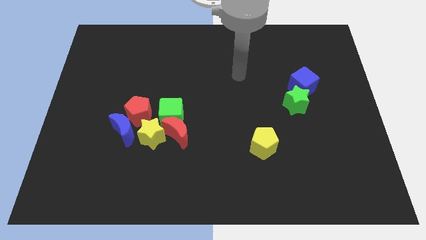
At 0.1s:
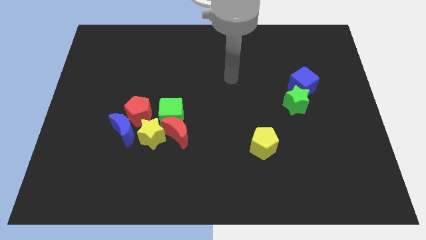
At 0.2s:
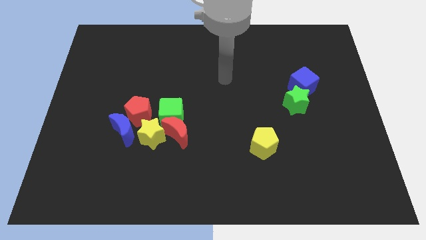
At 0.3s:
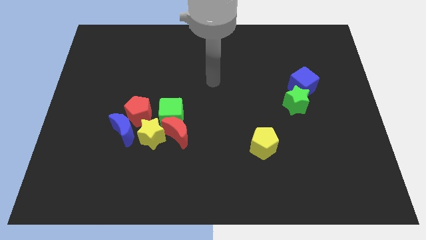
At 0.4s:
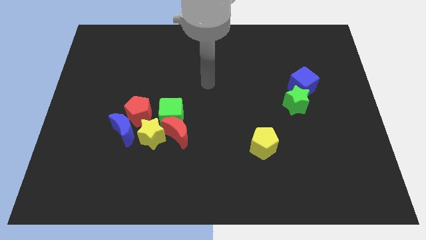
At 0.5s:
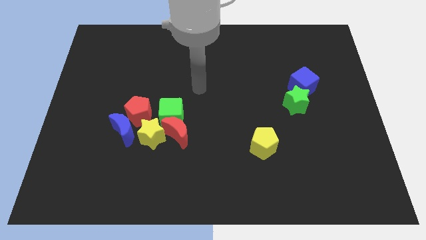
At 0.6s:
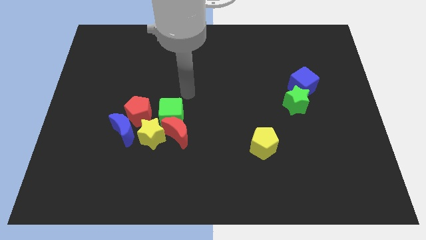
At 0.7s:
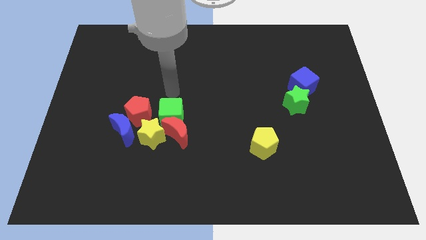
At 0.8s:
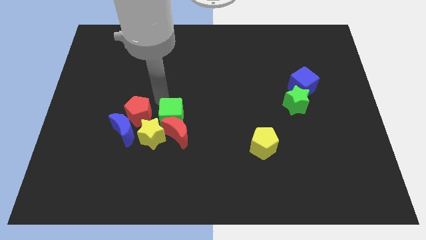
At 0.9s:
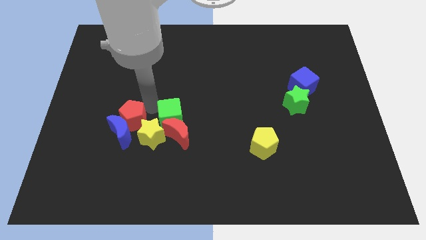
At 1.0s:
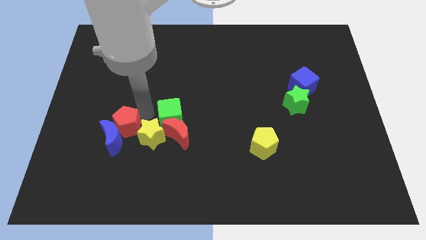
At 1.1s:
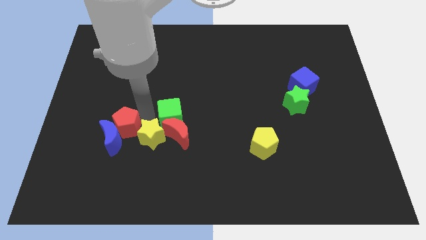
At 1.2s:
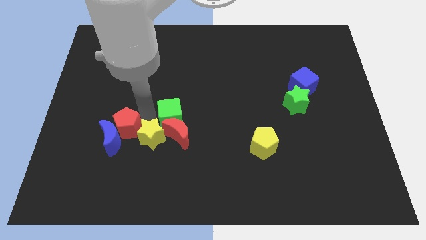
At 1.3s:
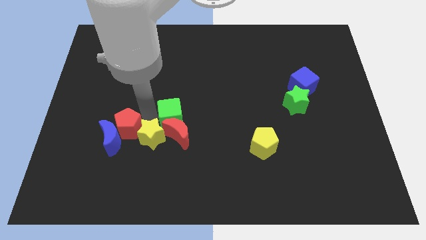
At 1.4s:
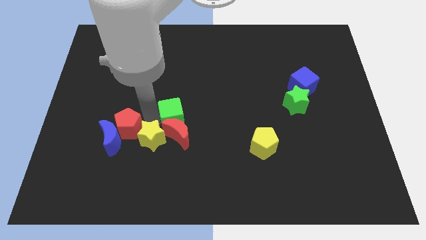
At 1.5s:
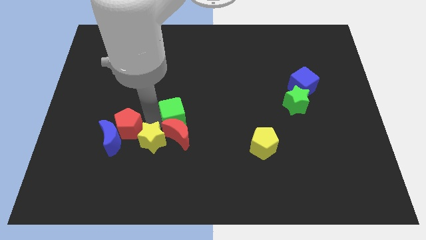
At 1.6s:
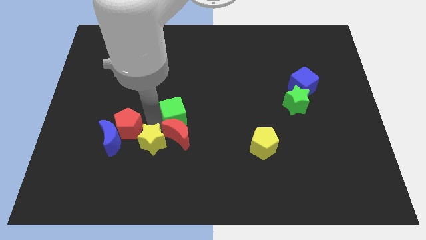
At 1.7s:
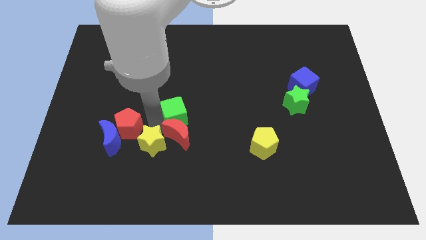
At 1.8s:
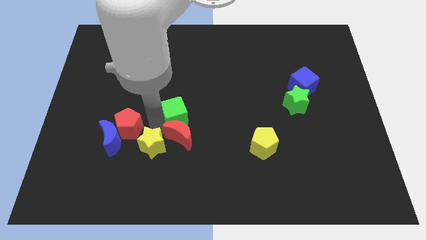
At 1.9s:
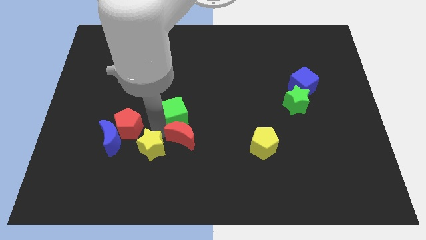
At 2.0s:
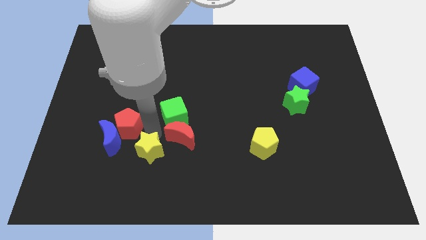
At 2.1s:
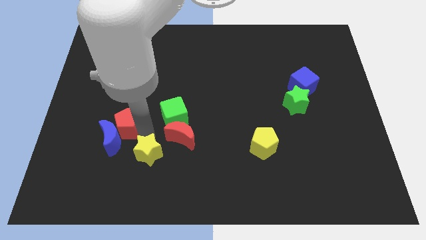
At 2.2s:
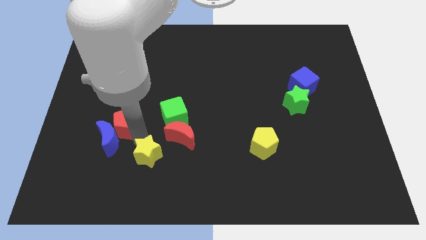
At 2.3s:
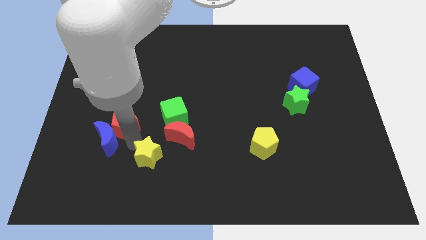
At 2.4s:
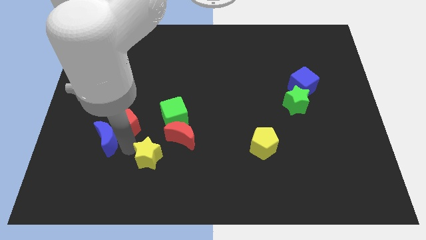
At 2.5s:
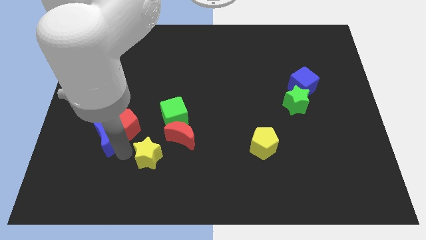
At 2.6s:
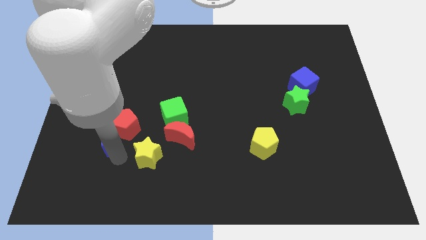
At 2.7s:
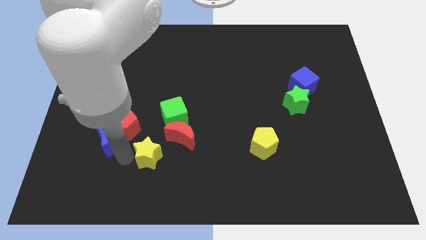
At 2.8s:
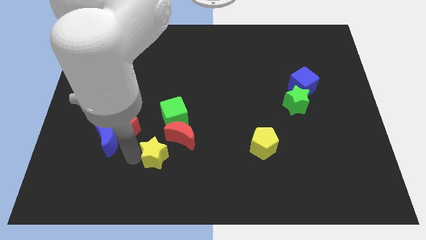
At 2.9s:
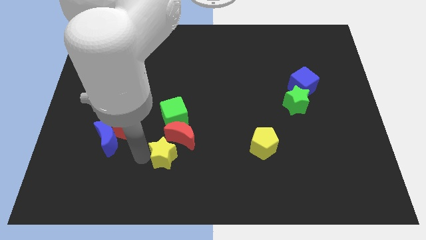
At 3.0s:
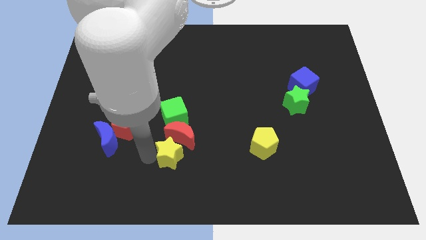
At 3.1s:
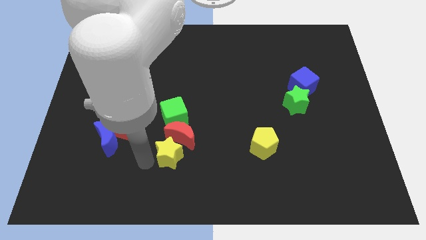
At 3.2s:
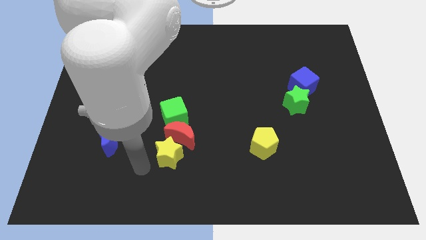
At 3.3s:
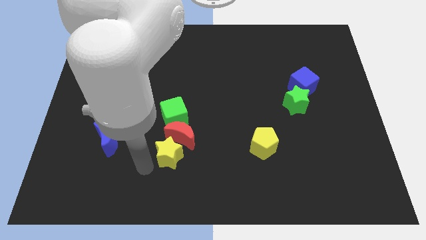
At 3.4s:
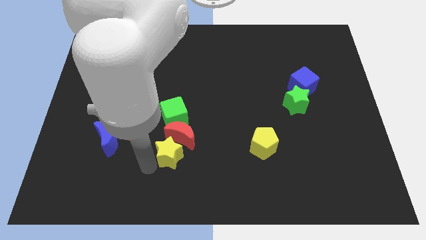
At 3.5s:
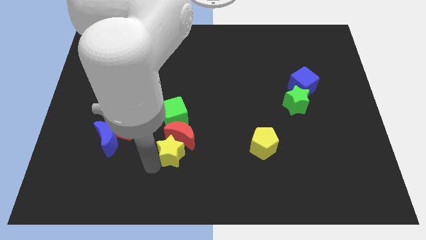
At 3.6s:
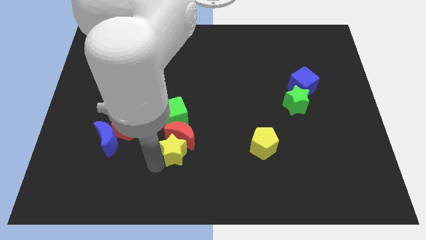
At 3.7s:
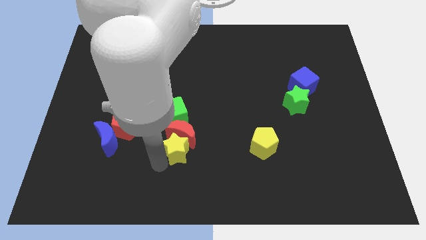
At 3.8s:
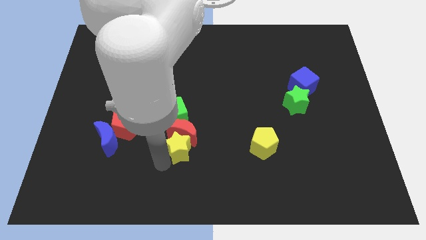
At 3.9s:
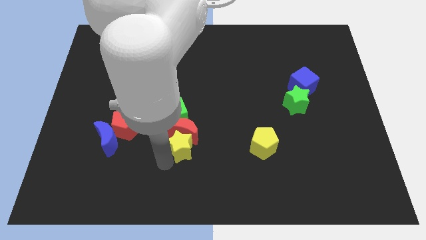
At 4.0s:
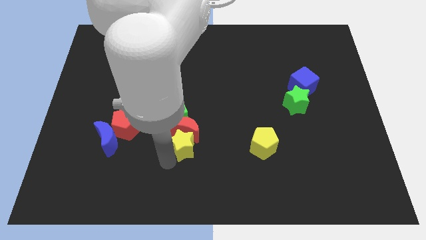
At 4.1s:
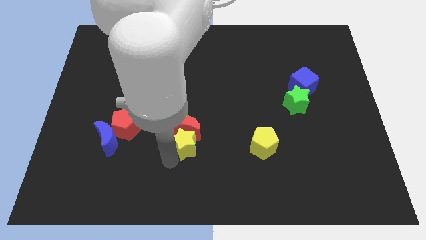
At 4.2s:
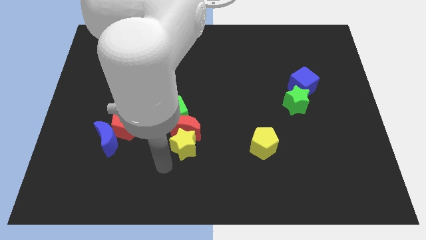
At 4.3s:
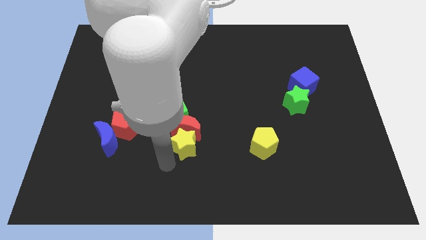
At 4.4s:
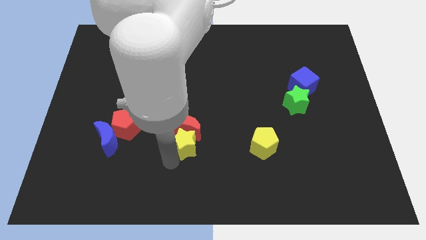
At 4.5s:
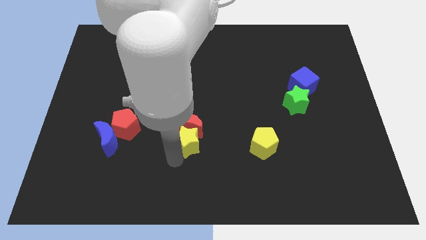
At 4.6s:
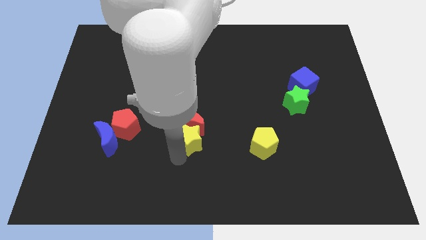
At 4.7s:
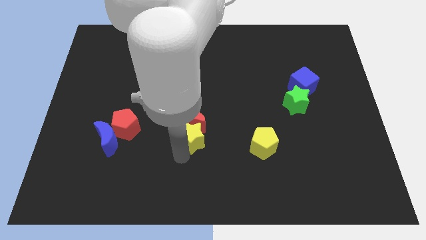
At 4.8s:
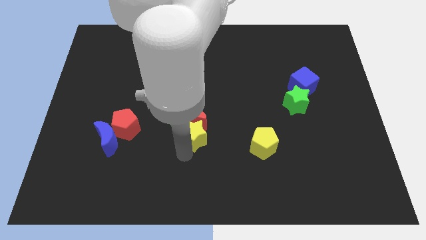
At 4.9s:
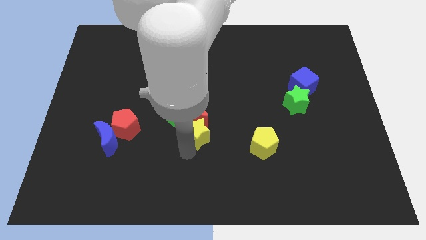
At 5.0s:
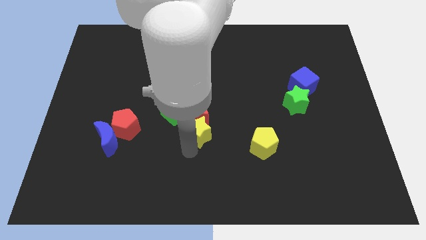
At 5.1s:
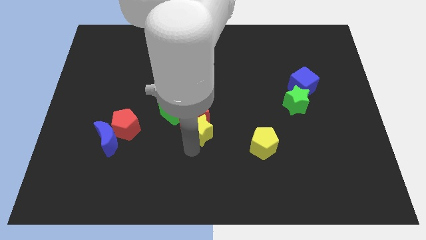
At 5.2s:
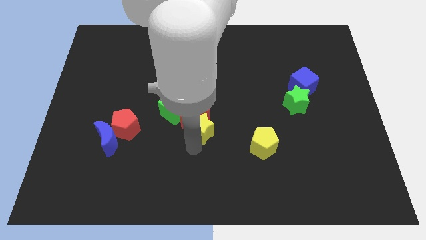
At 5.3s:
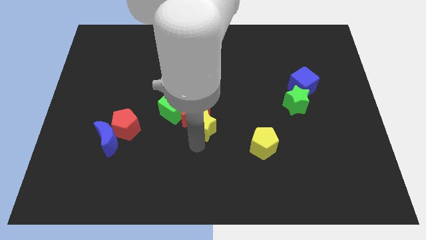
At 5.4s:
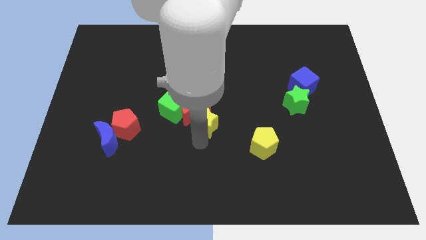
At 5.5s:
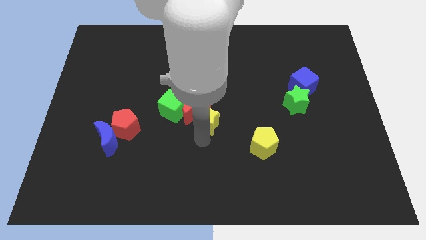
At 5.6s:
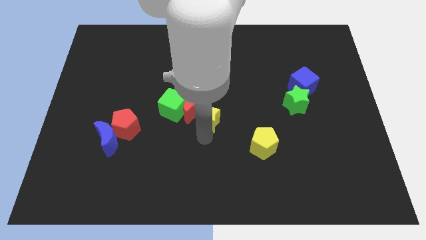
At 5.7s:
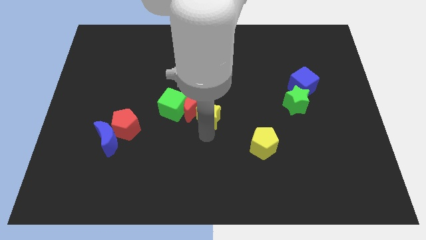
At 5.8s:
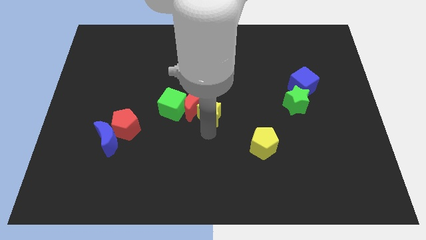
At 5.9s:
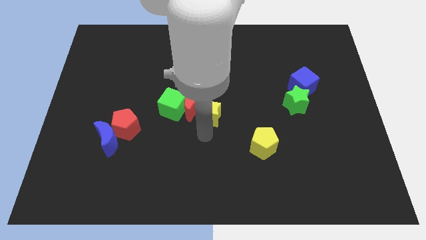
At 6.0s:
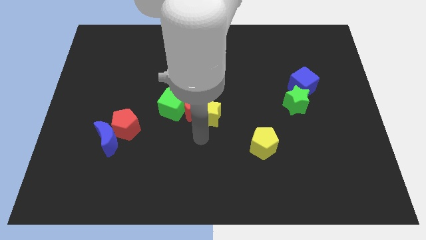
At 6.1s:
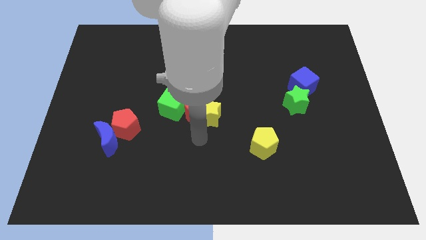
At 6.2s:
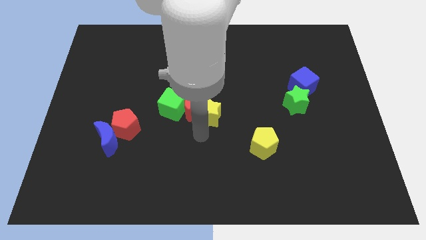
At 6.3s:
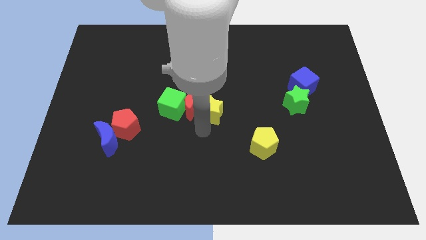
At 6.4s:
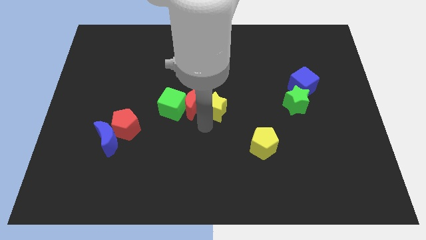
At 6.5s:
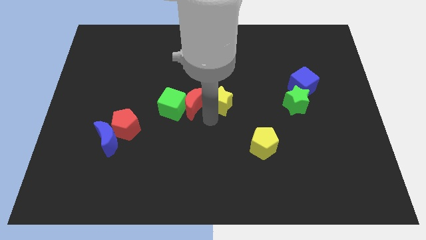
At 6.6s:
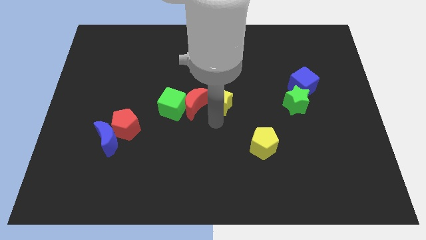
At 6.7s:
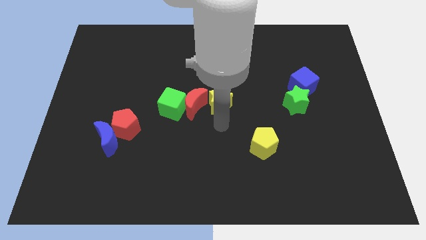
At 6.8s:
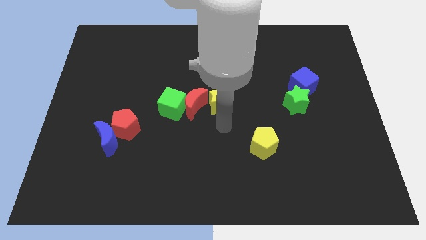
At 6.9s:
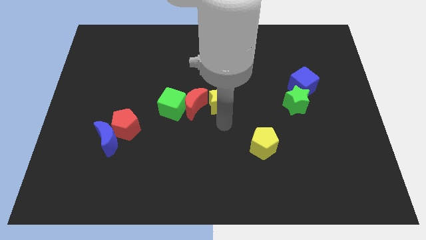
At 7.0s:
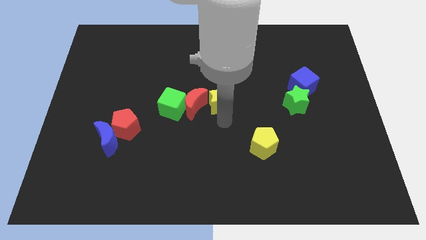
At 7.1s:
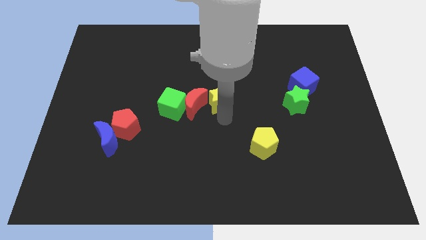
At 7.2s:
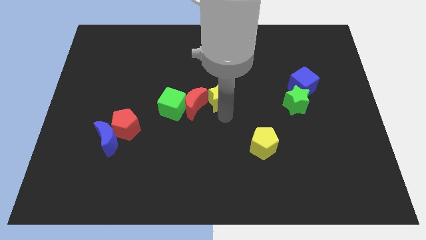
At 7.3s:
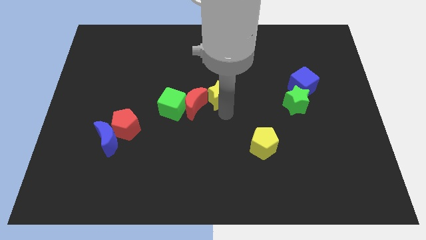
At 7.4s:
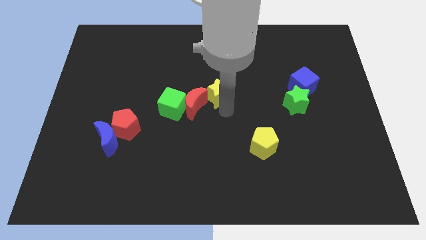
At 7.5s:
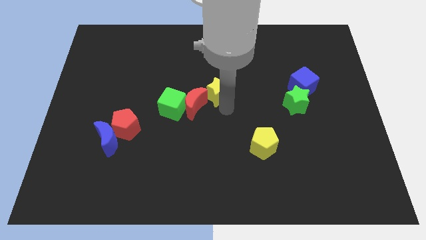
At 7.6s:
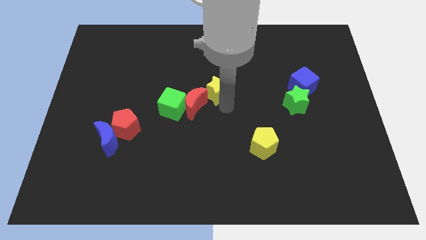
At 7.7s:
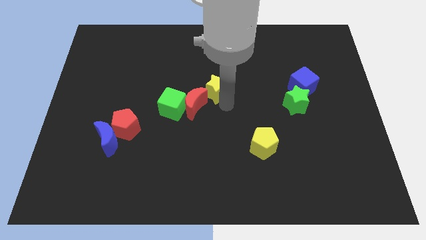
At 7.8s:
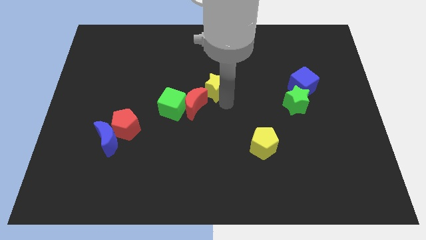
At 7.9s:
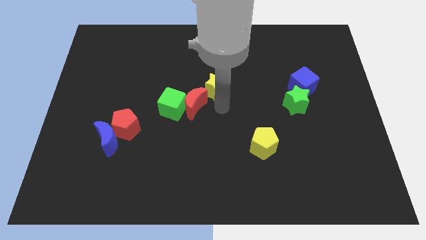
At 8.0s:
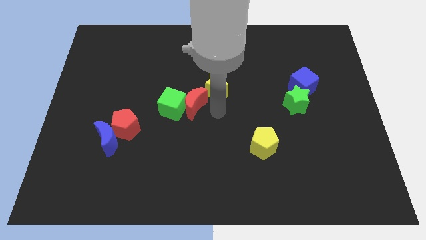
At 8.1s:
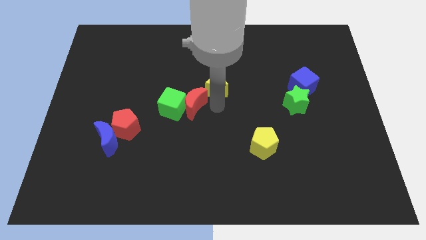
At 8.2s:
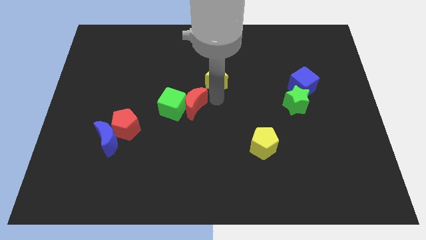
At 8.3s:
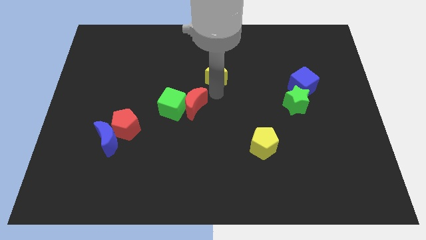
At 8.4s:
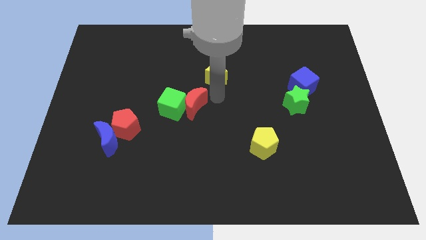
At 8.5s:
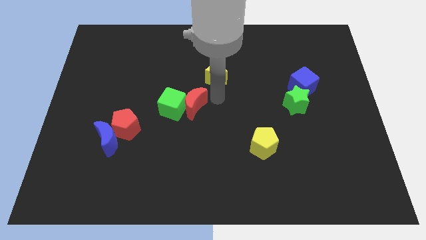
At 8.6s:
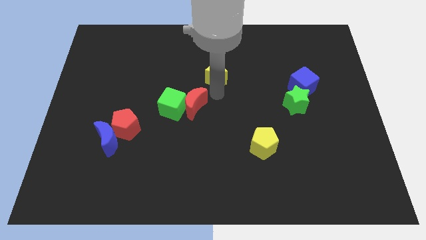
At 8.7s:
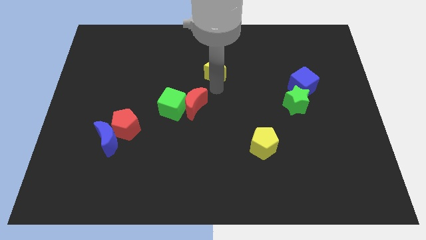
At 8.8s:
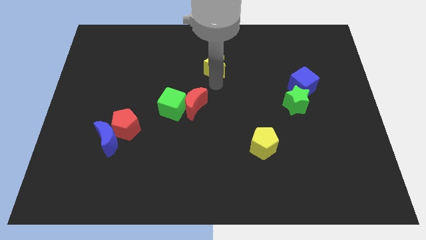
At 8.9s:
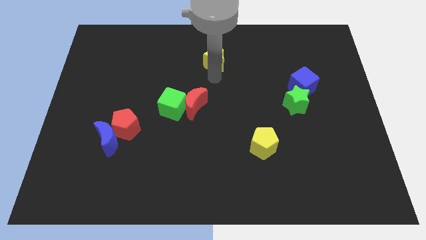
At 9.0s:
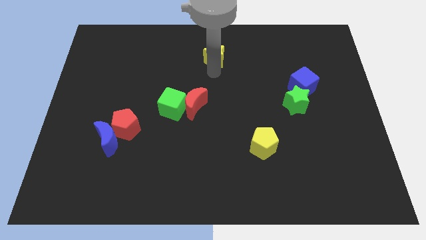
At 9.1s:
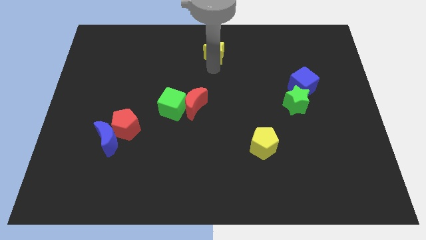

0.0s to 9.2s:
push the yellow star to the top
